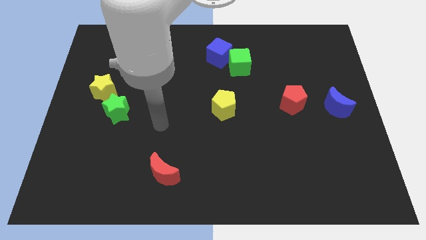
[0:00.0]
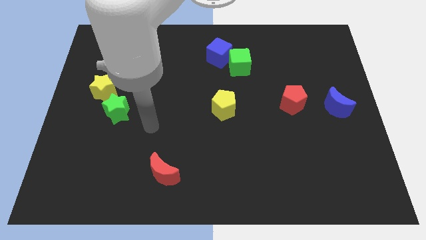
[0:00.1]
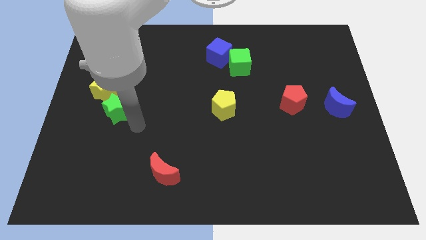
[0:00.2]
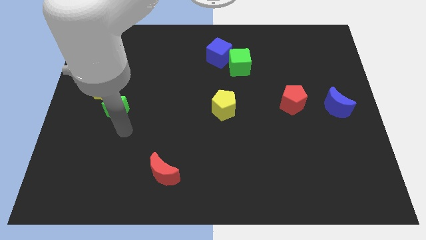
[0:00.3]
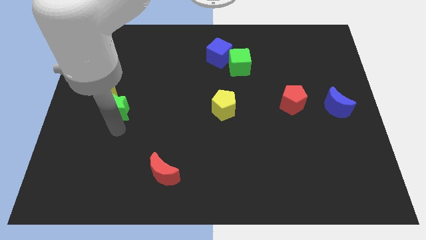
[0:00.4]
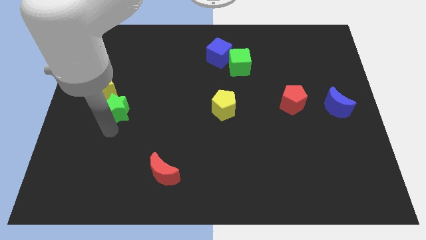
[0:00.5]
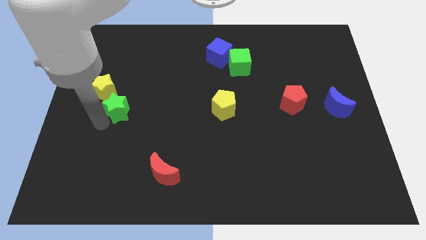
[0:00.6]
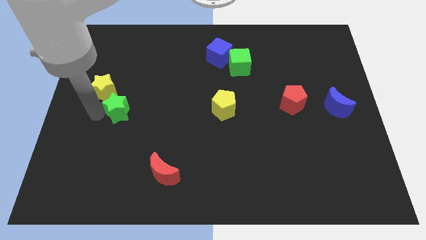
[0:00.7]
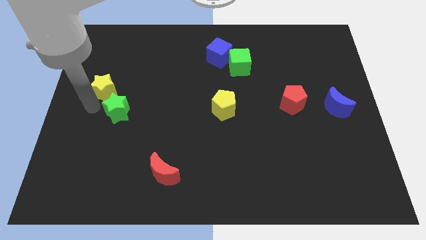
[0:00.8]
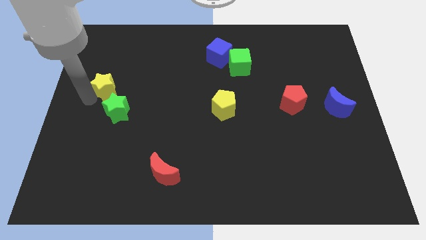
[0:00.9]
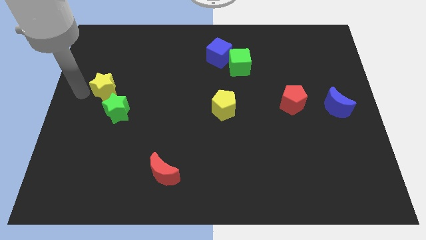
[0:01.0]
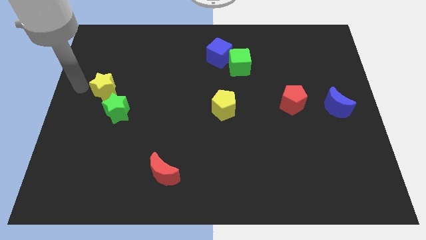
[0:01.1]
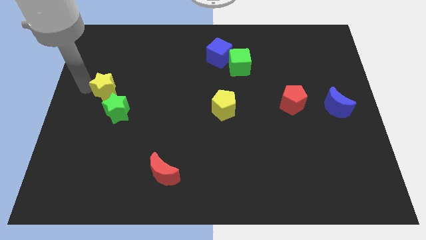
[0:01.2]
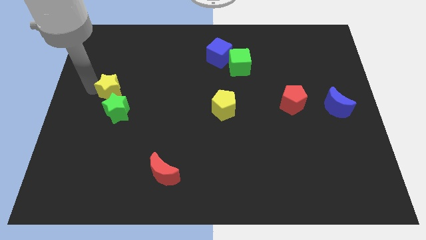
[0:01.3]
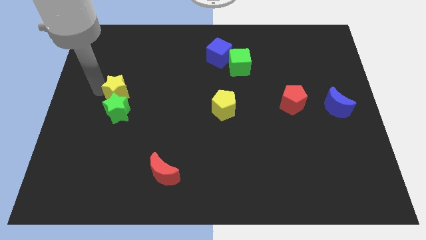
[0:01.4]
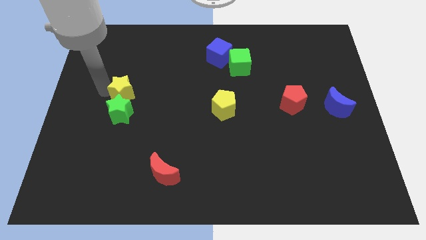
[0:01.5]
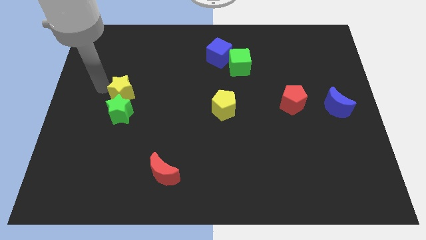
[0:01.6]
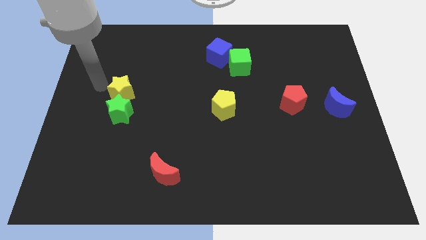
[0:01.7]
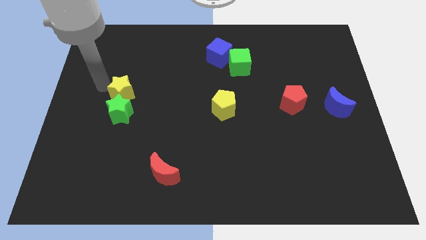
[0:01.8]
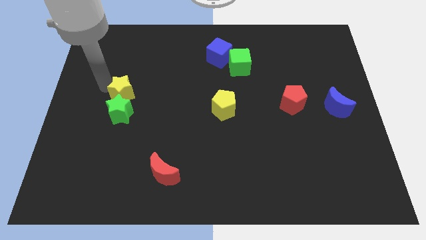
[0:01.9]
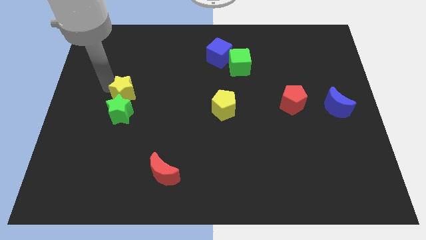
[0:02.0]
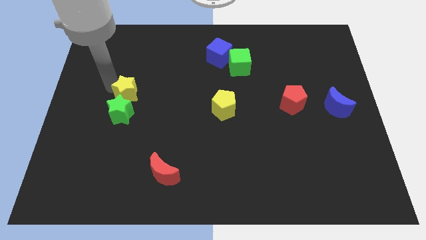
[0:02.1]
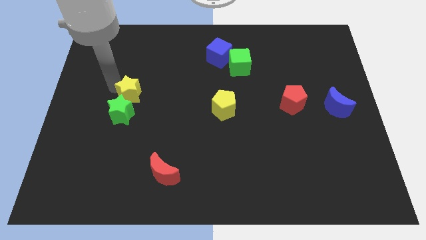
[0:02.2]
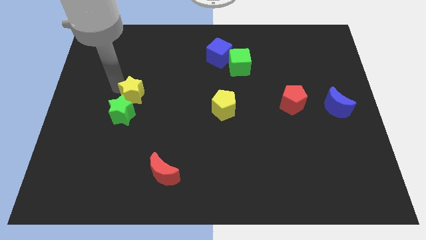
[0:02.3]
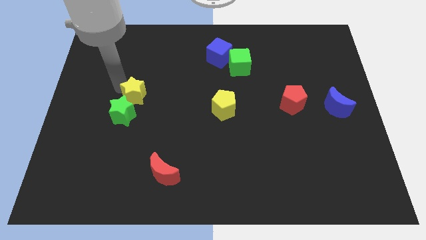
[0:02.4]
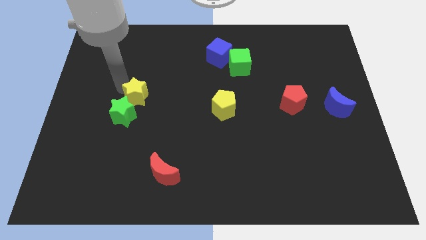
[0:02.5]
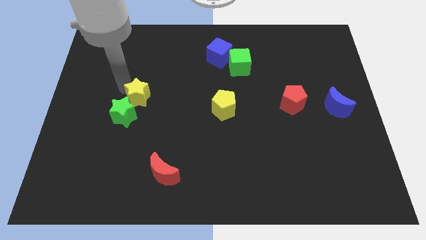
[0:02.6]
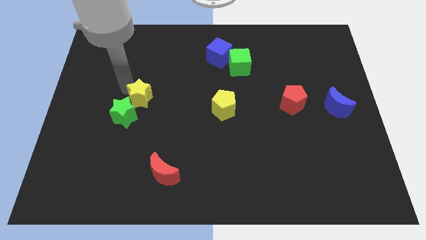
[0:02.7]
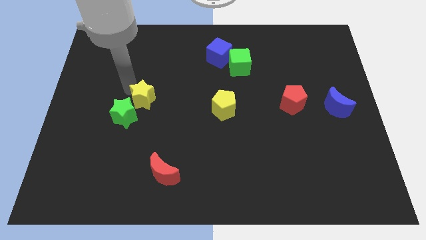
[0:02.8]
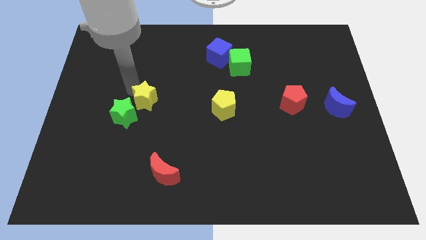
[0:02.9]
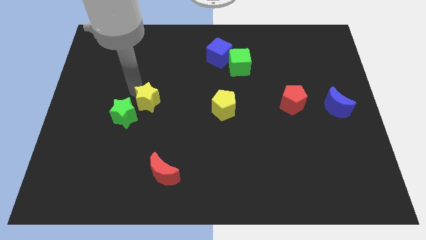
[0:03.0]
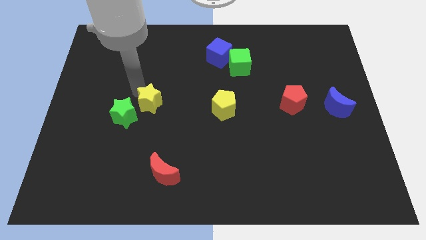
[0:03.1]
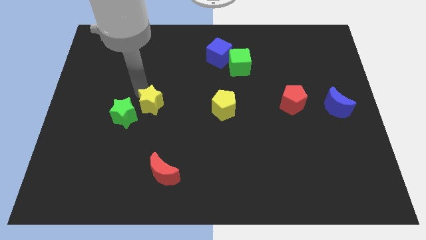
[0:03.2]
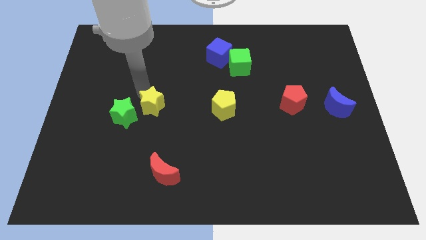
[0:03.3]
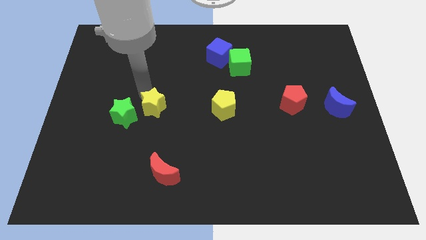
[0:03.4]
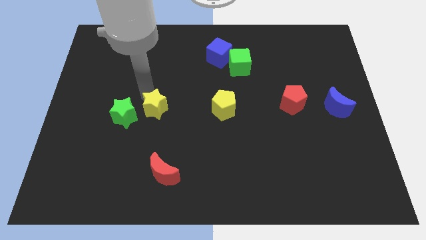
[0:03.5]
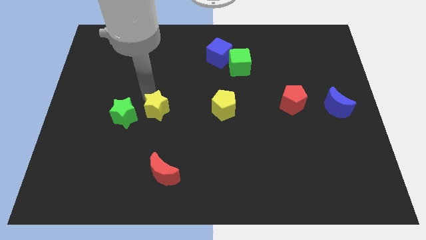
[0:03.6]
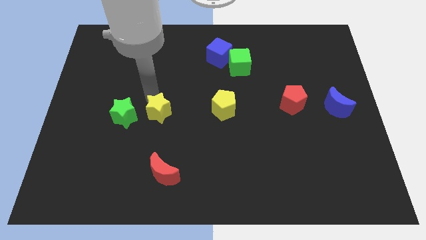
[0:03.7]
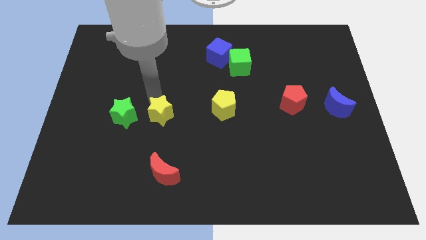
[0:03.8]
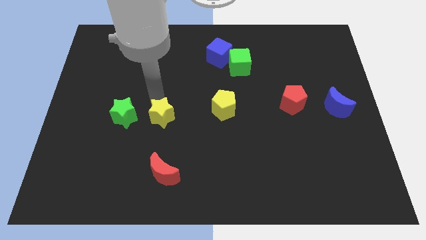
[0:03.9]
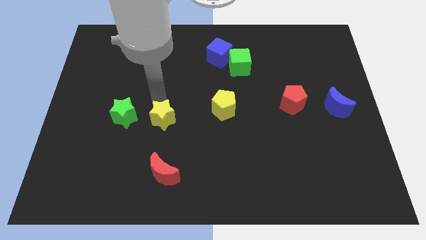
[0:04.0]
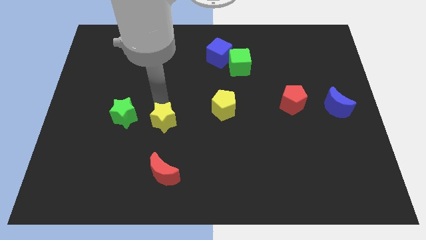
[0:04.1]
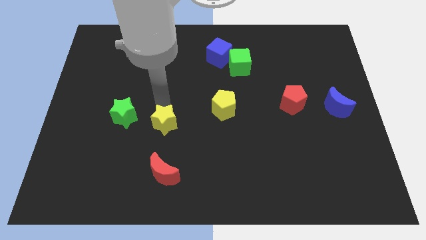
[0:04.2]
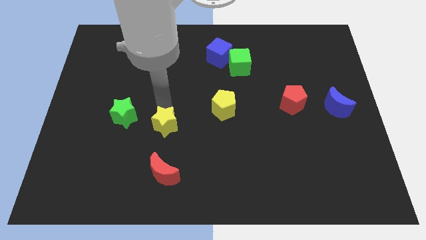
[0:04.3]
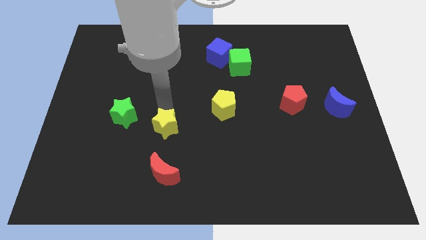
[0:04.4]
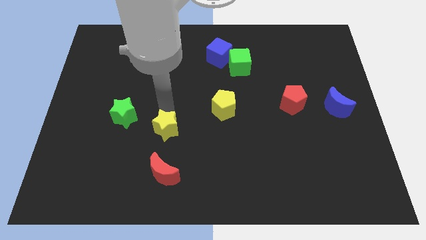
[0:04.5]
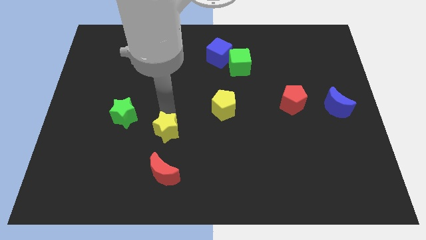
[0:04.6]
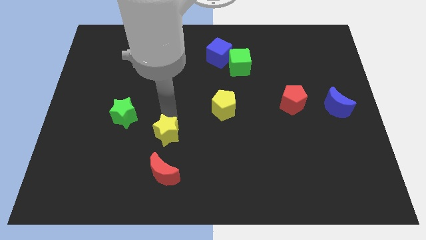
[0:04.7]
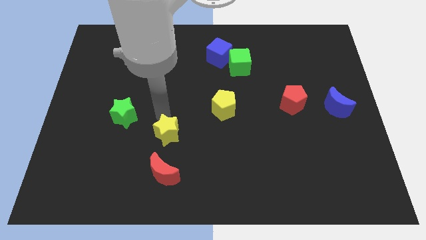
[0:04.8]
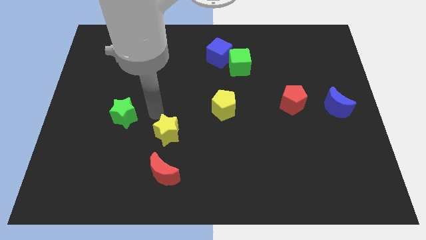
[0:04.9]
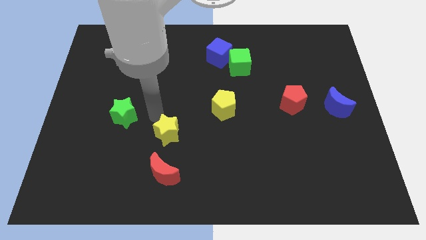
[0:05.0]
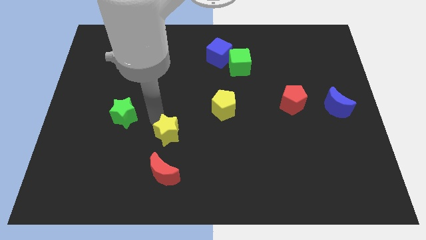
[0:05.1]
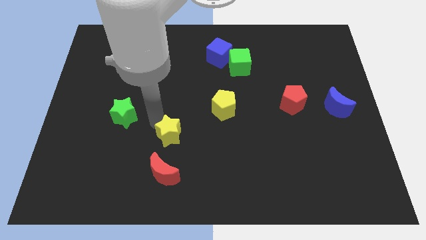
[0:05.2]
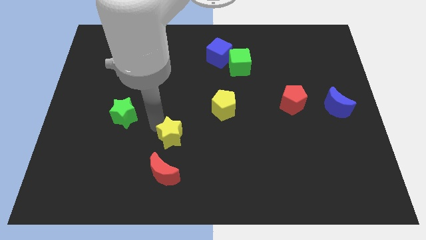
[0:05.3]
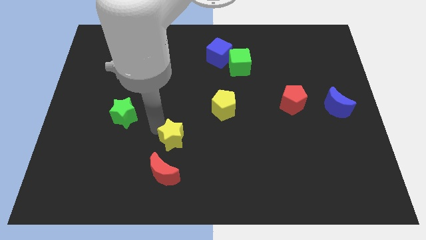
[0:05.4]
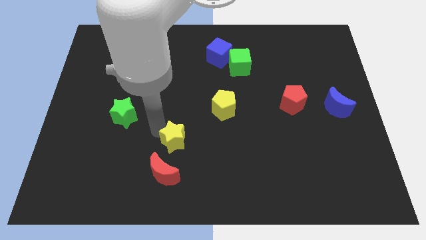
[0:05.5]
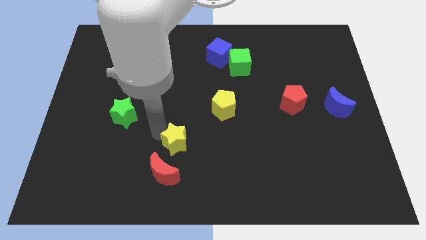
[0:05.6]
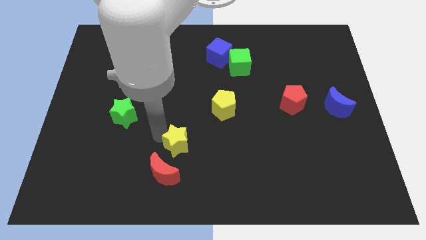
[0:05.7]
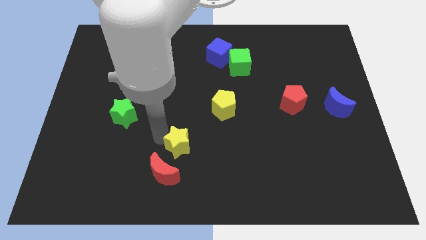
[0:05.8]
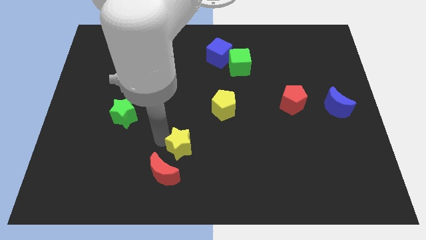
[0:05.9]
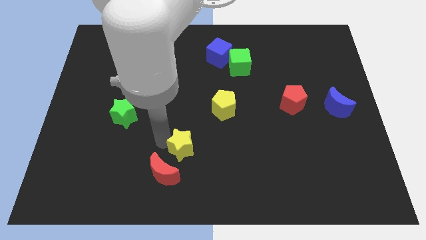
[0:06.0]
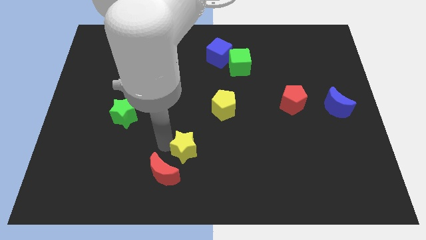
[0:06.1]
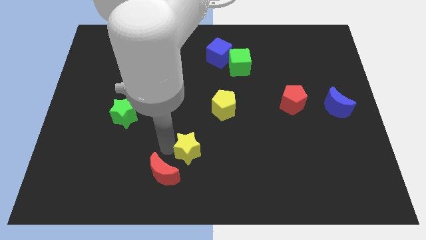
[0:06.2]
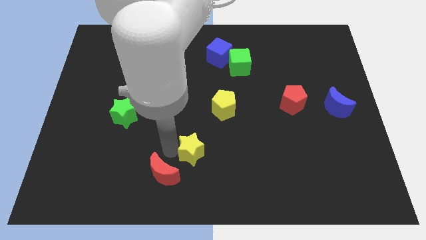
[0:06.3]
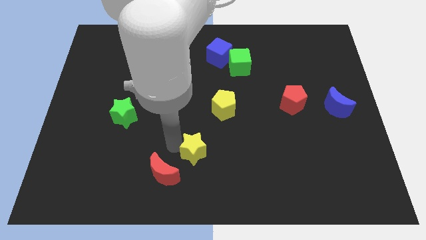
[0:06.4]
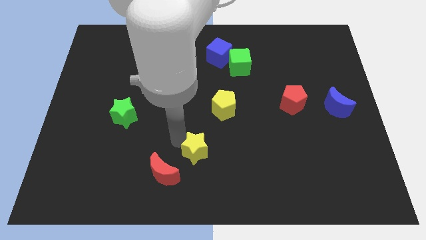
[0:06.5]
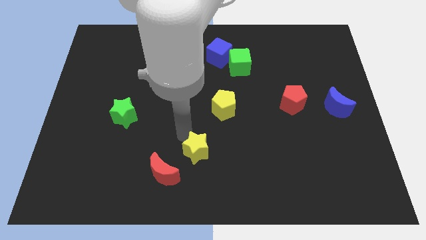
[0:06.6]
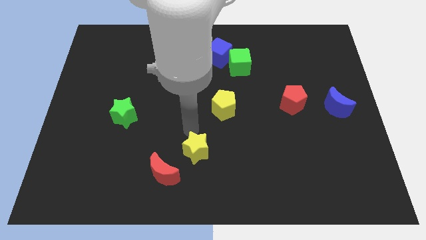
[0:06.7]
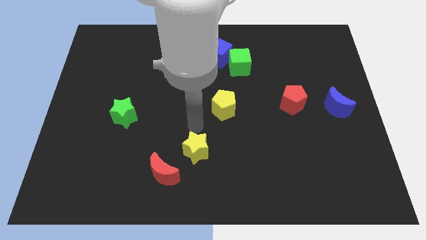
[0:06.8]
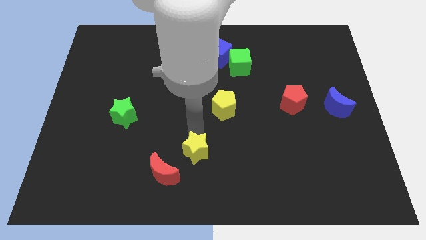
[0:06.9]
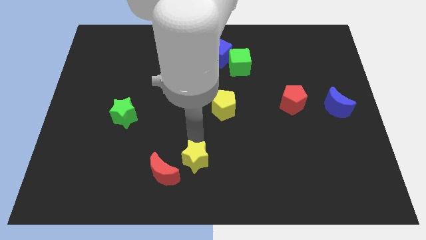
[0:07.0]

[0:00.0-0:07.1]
move the yellow star to the bottom
